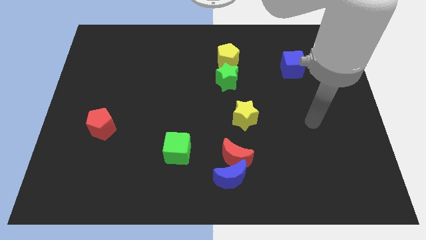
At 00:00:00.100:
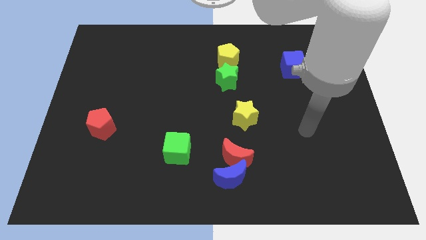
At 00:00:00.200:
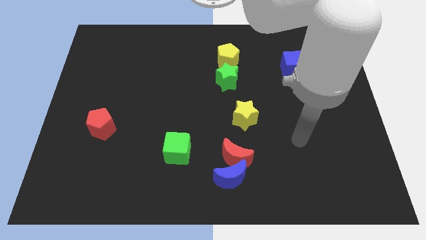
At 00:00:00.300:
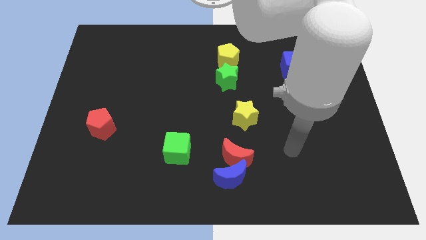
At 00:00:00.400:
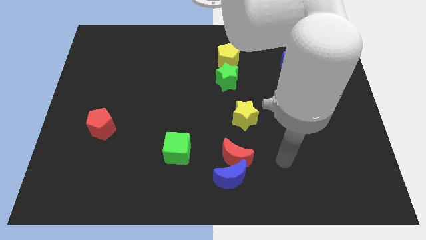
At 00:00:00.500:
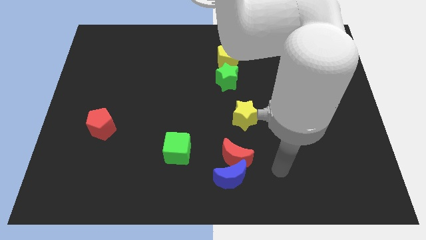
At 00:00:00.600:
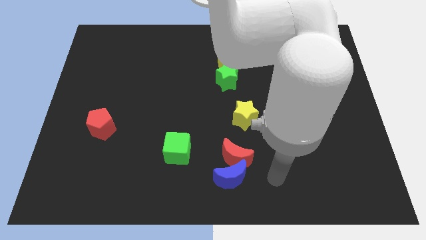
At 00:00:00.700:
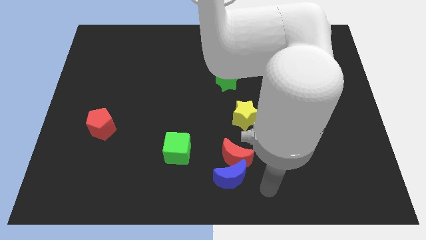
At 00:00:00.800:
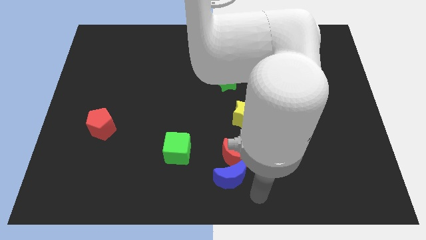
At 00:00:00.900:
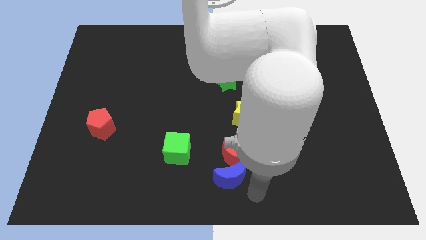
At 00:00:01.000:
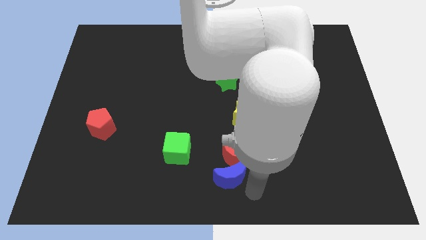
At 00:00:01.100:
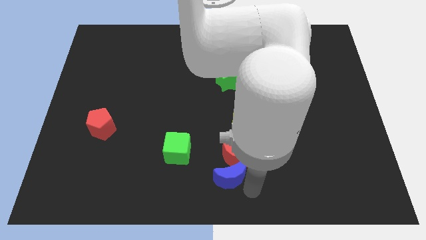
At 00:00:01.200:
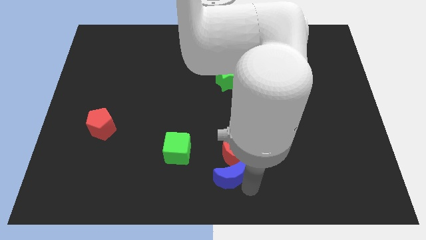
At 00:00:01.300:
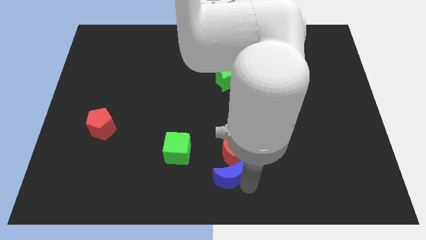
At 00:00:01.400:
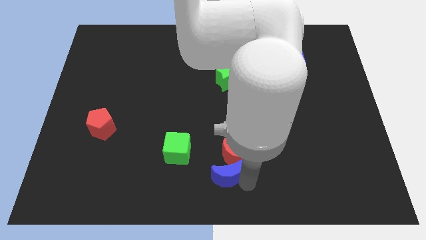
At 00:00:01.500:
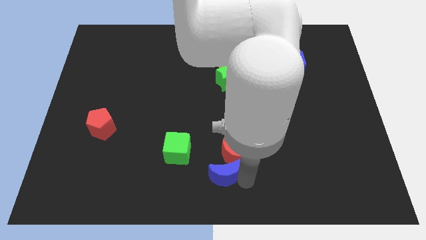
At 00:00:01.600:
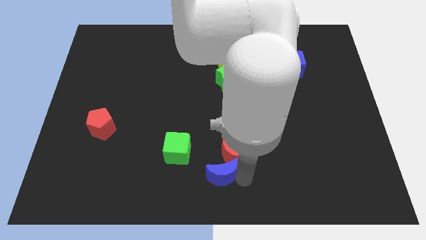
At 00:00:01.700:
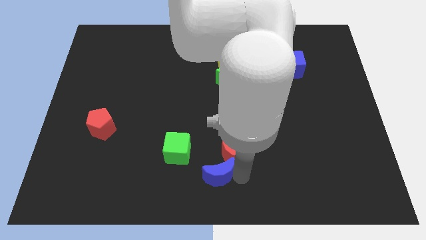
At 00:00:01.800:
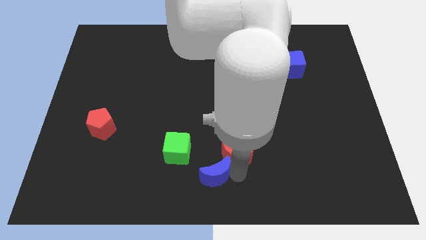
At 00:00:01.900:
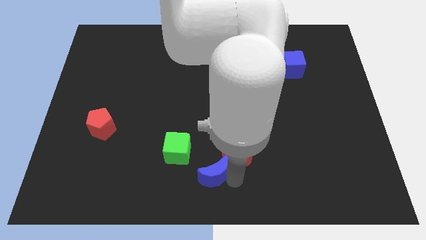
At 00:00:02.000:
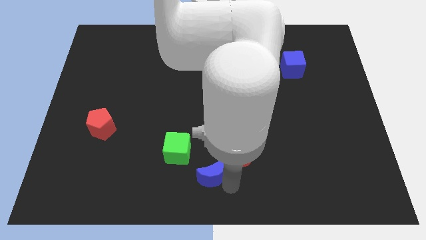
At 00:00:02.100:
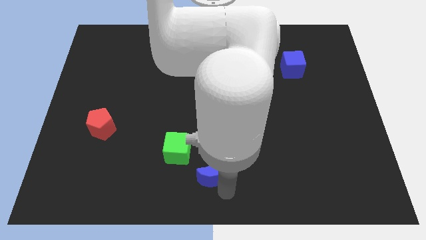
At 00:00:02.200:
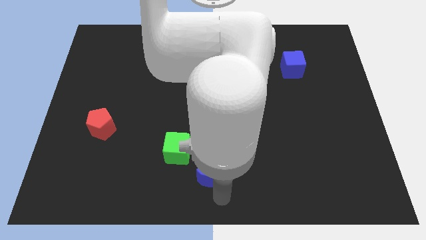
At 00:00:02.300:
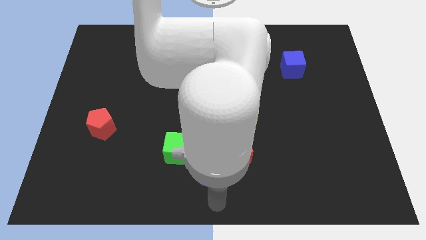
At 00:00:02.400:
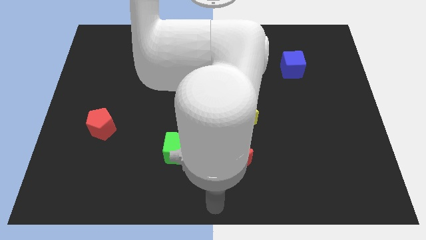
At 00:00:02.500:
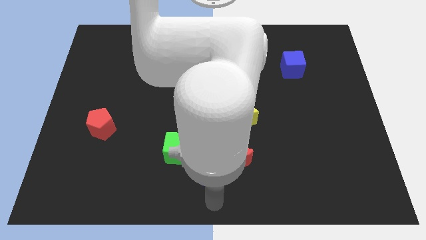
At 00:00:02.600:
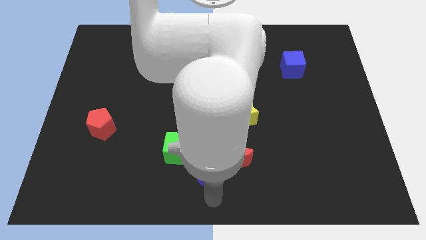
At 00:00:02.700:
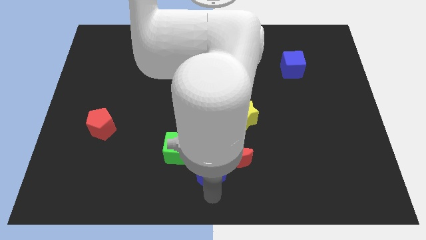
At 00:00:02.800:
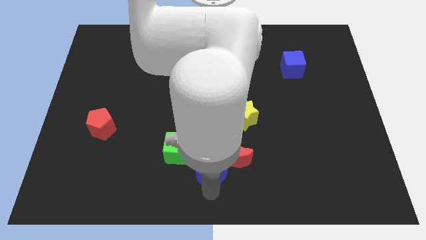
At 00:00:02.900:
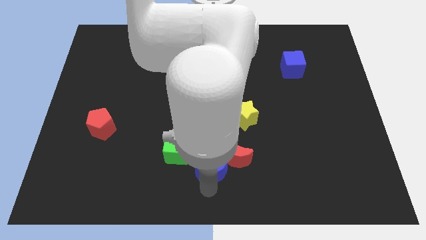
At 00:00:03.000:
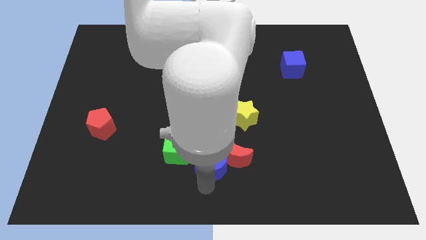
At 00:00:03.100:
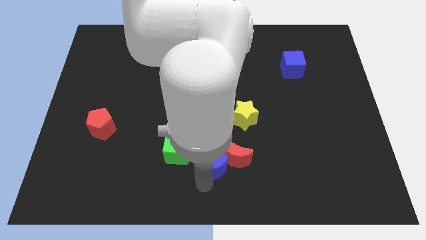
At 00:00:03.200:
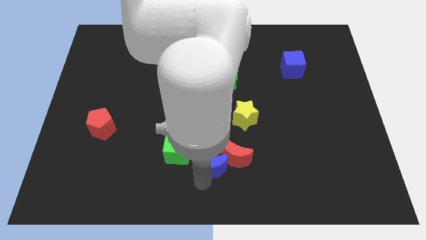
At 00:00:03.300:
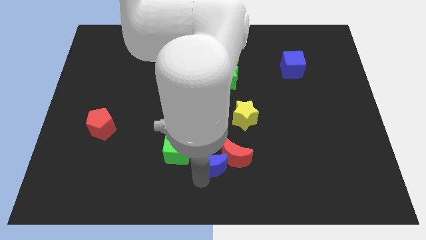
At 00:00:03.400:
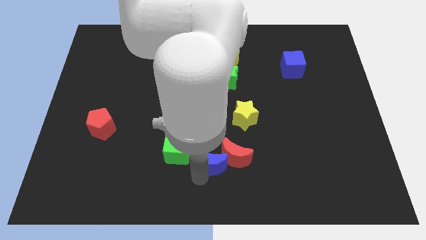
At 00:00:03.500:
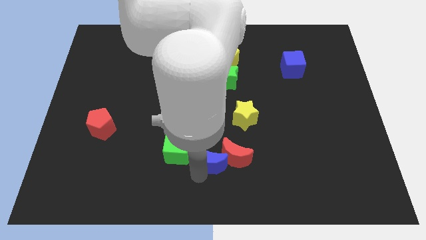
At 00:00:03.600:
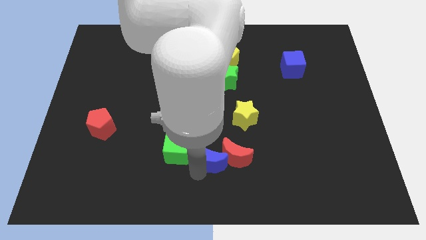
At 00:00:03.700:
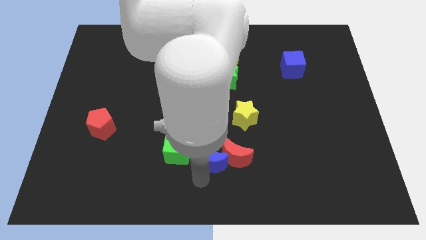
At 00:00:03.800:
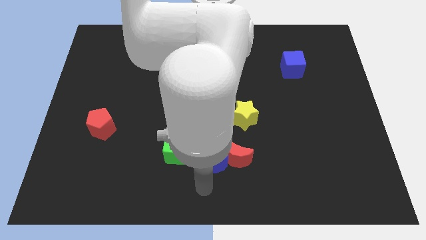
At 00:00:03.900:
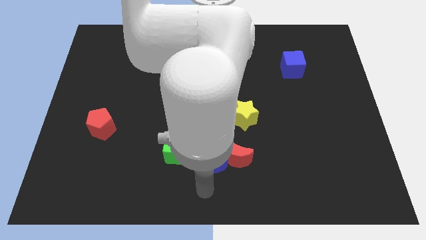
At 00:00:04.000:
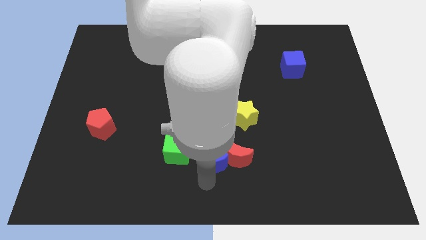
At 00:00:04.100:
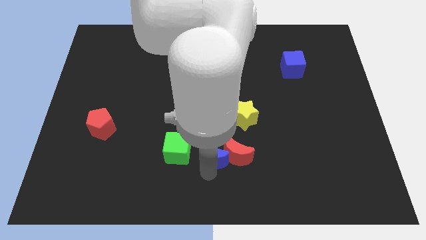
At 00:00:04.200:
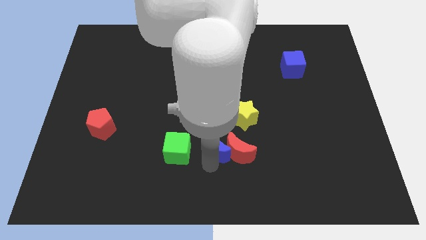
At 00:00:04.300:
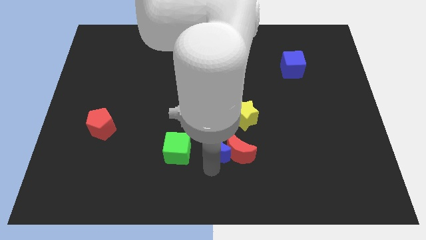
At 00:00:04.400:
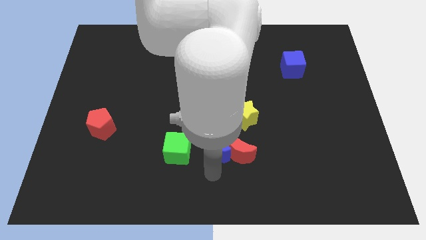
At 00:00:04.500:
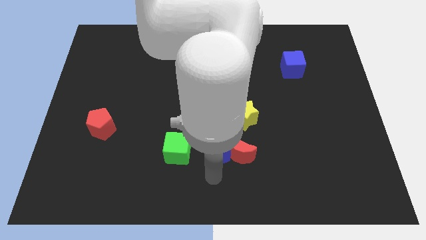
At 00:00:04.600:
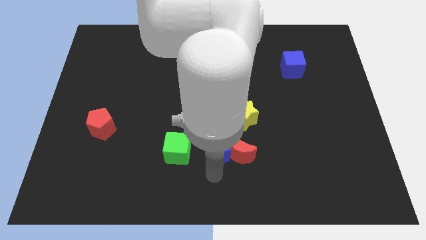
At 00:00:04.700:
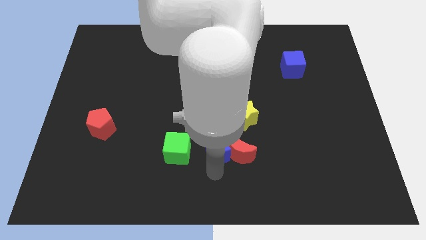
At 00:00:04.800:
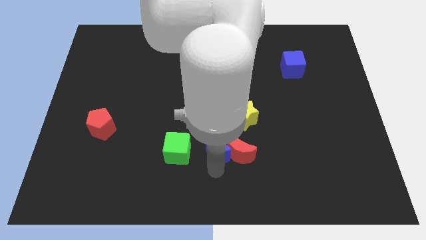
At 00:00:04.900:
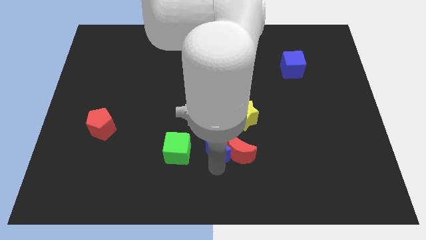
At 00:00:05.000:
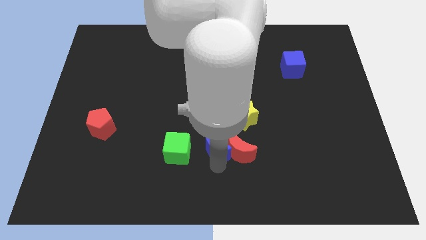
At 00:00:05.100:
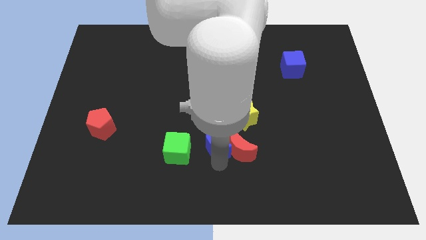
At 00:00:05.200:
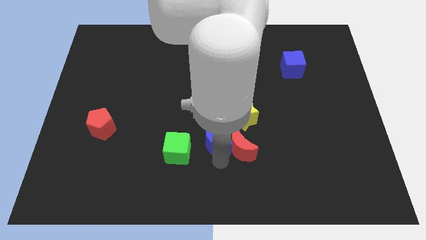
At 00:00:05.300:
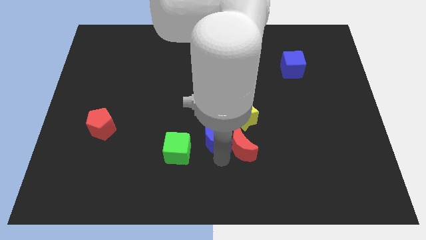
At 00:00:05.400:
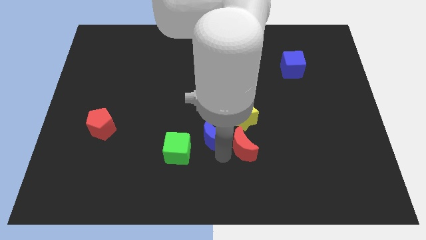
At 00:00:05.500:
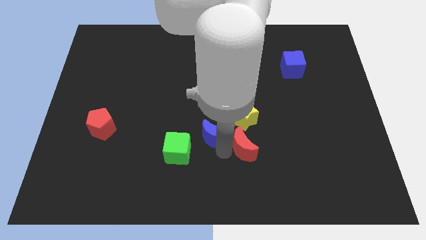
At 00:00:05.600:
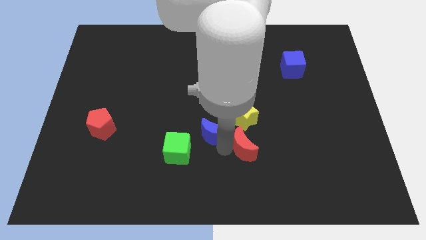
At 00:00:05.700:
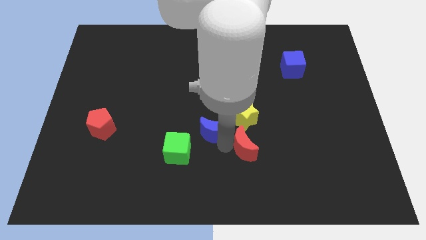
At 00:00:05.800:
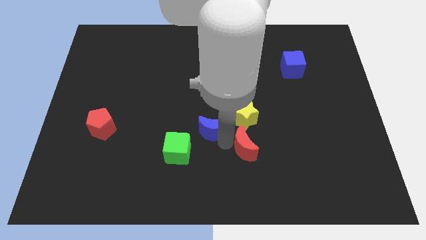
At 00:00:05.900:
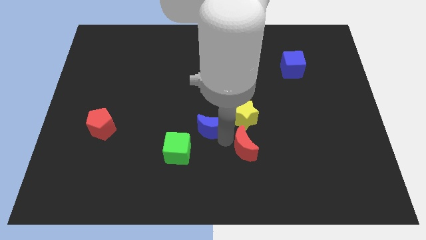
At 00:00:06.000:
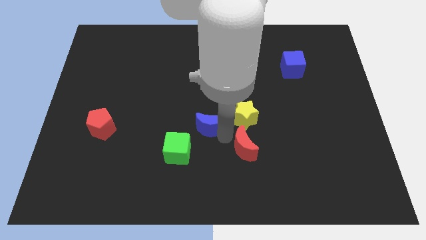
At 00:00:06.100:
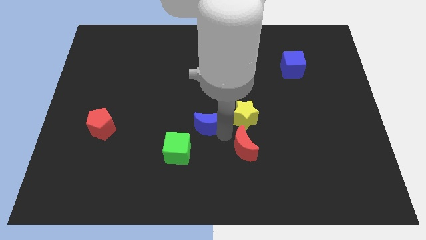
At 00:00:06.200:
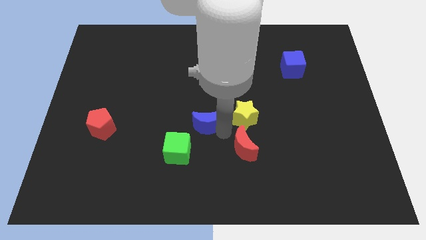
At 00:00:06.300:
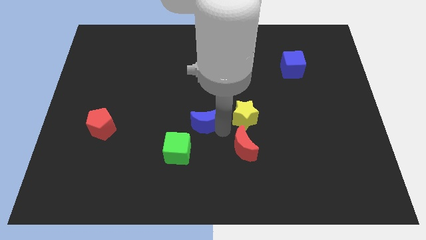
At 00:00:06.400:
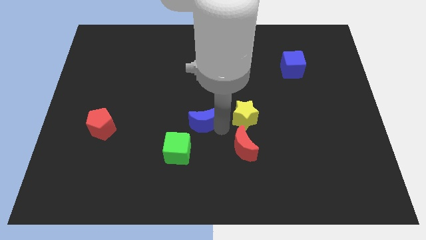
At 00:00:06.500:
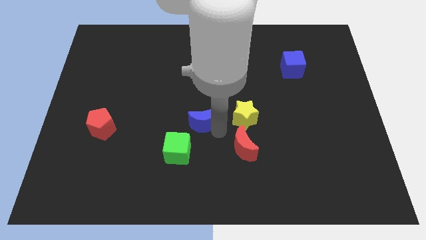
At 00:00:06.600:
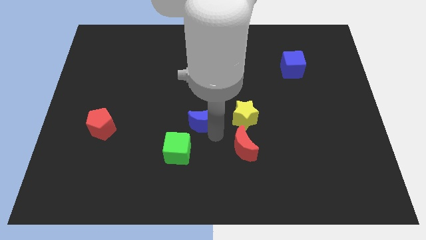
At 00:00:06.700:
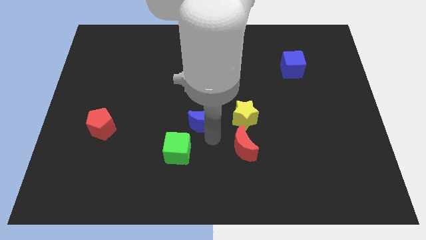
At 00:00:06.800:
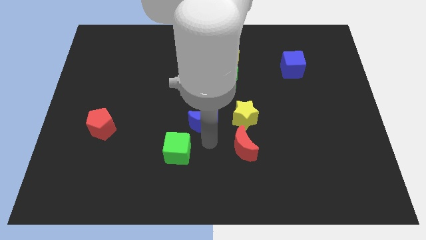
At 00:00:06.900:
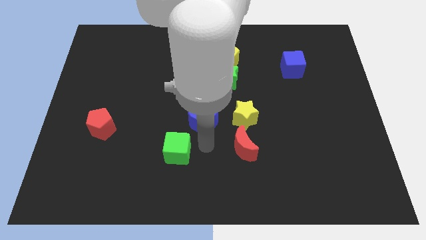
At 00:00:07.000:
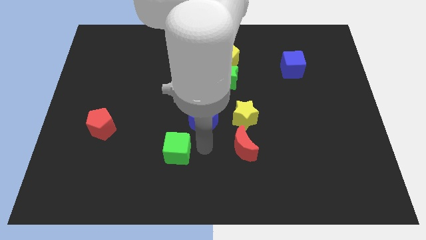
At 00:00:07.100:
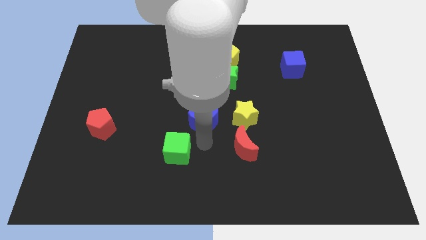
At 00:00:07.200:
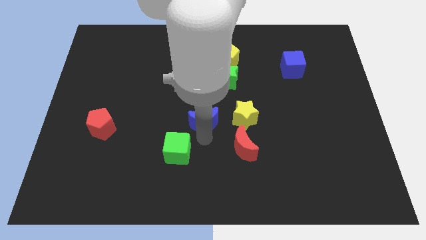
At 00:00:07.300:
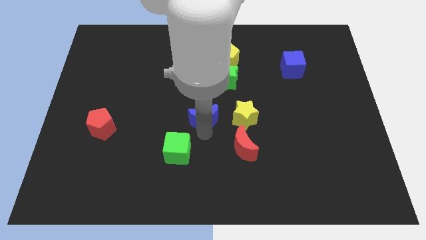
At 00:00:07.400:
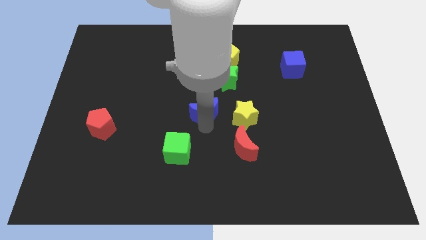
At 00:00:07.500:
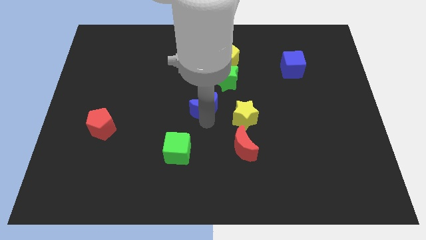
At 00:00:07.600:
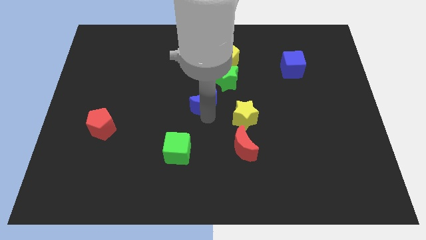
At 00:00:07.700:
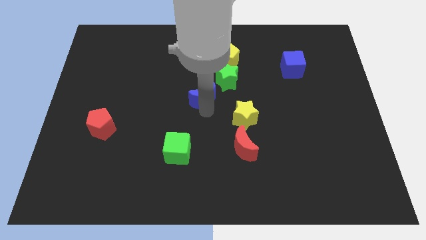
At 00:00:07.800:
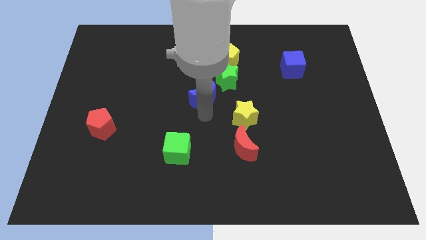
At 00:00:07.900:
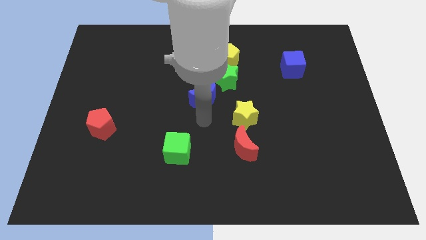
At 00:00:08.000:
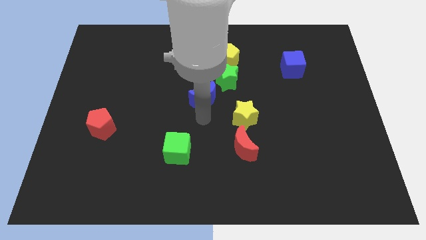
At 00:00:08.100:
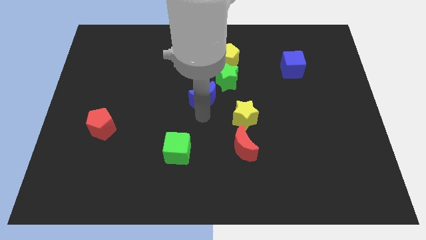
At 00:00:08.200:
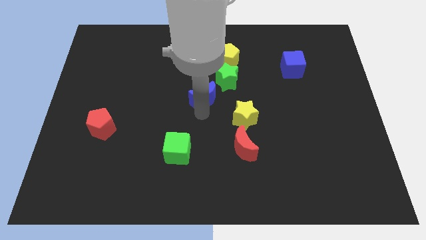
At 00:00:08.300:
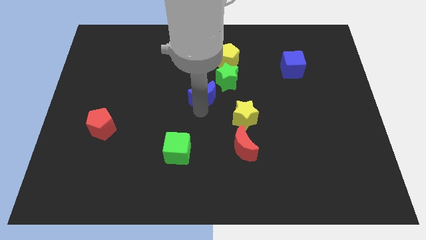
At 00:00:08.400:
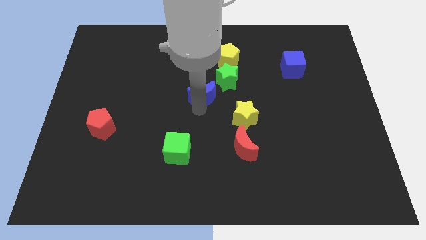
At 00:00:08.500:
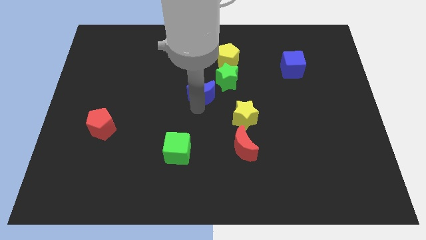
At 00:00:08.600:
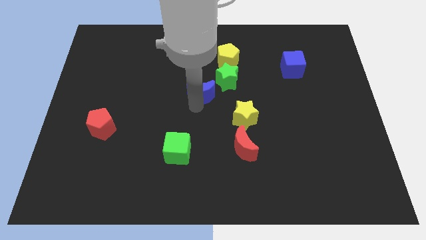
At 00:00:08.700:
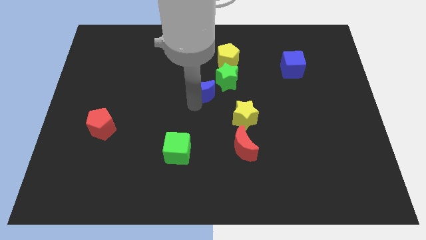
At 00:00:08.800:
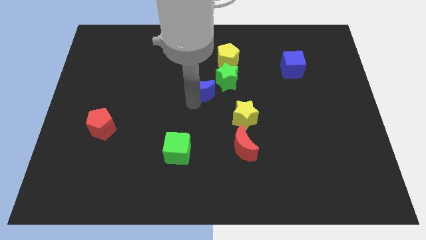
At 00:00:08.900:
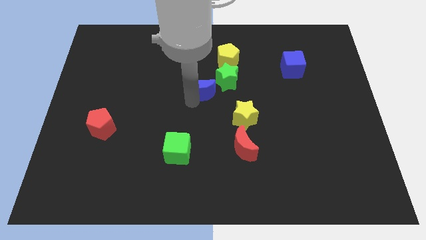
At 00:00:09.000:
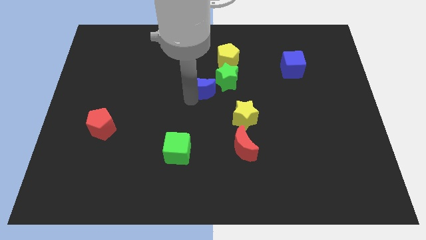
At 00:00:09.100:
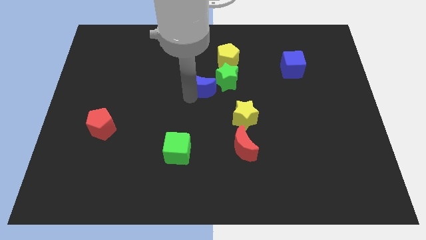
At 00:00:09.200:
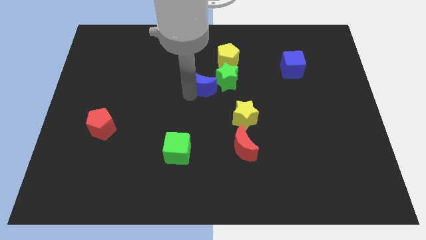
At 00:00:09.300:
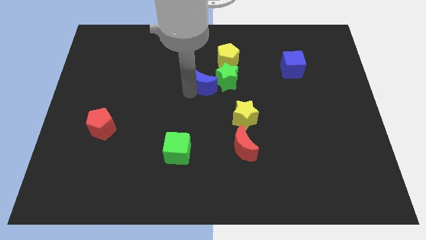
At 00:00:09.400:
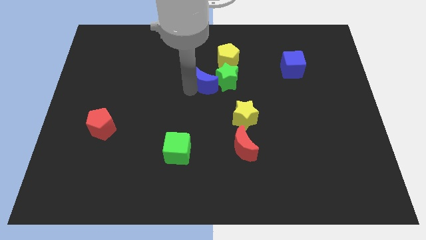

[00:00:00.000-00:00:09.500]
slide the blue moon to the green star
